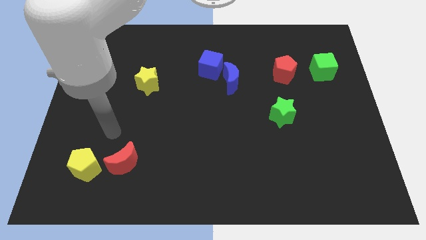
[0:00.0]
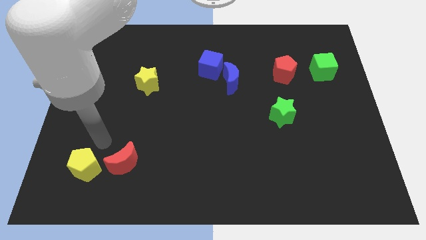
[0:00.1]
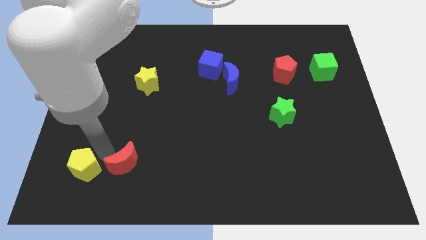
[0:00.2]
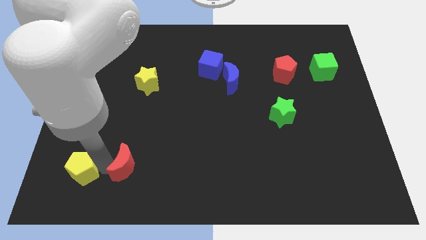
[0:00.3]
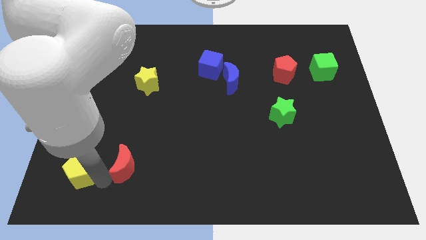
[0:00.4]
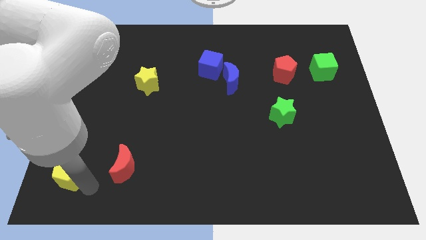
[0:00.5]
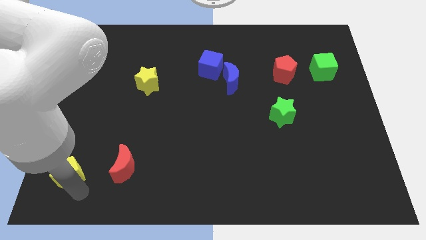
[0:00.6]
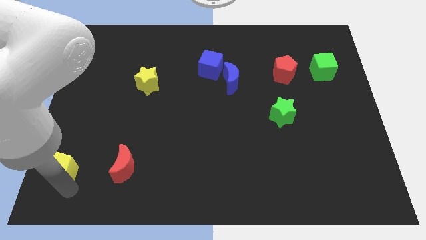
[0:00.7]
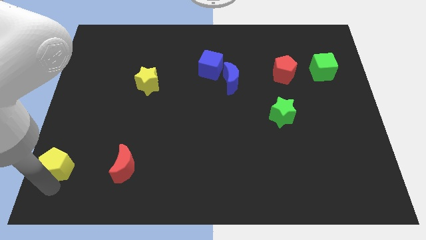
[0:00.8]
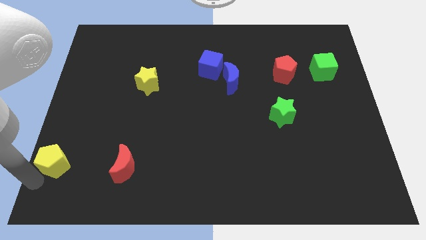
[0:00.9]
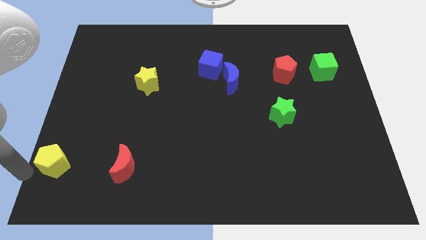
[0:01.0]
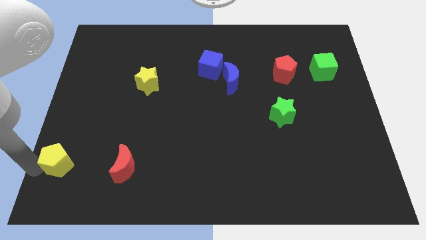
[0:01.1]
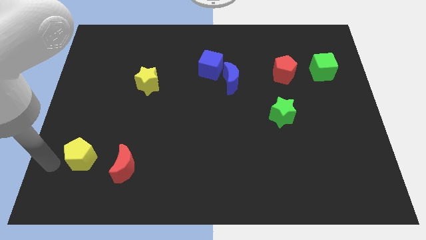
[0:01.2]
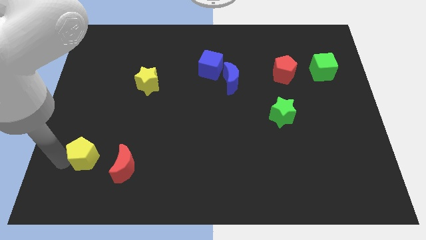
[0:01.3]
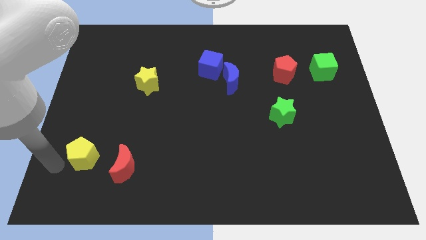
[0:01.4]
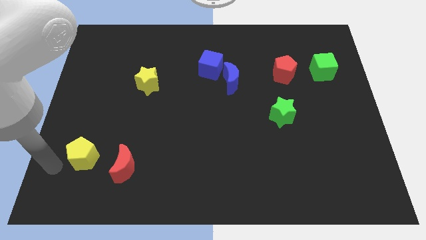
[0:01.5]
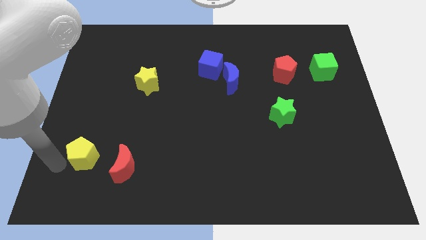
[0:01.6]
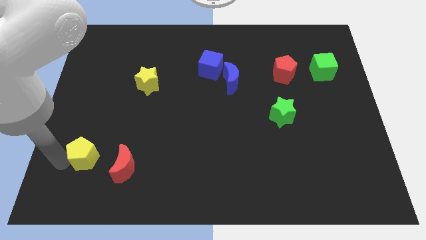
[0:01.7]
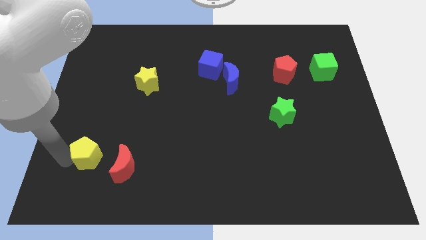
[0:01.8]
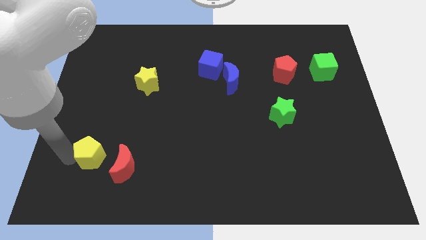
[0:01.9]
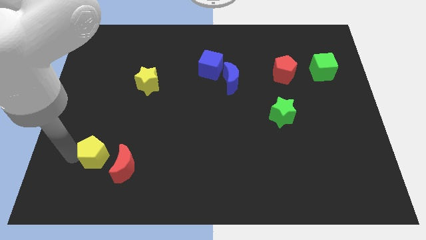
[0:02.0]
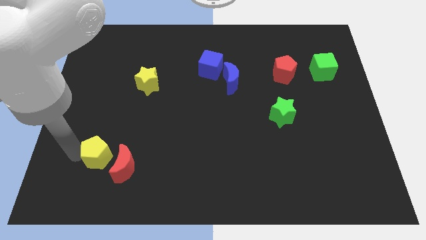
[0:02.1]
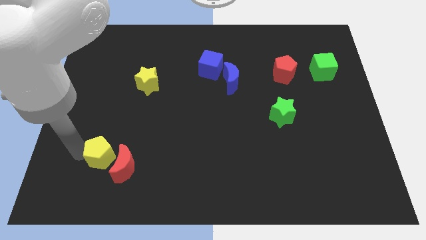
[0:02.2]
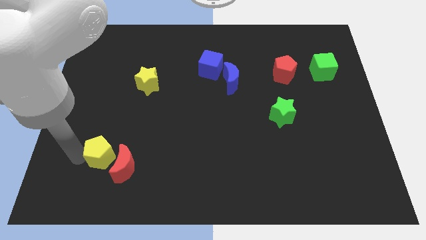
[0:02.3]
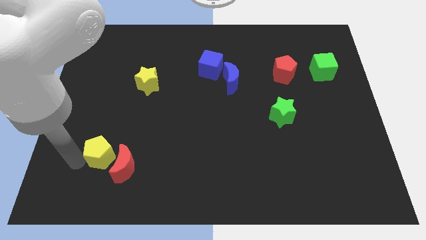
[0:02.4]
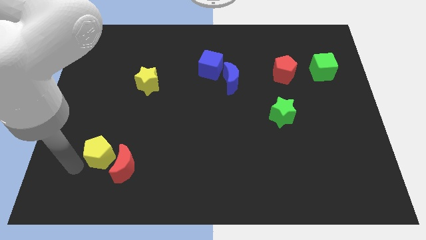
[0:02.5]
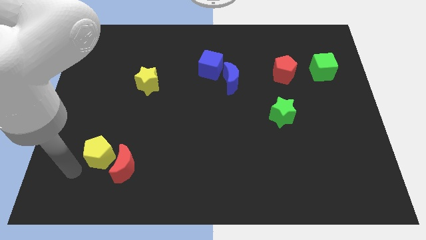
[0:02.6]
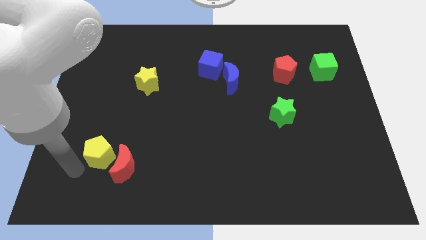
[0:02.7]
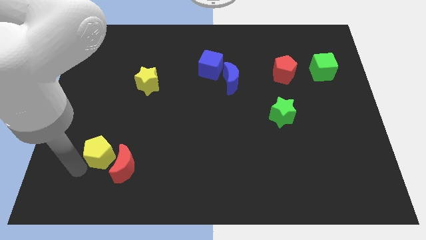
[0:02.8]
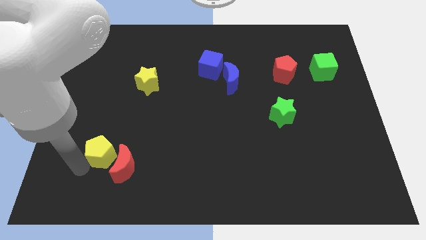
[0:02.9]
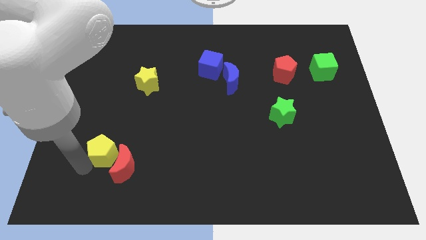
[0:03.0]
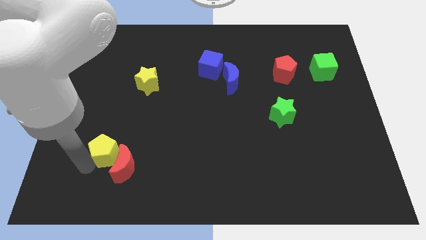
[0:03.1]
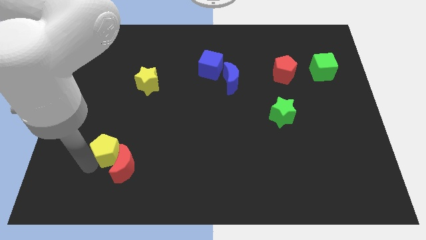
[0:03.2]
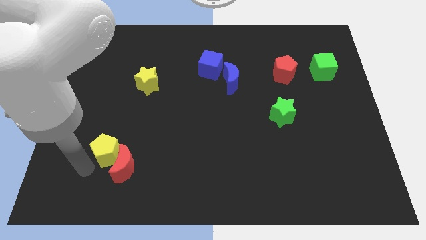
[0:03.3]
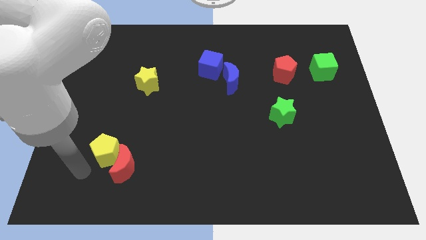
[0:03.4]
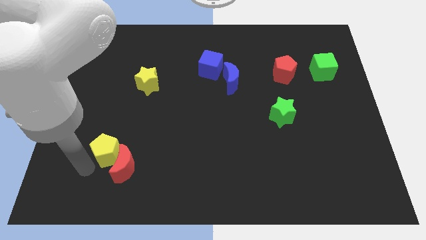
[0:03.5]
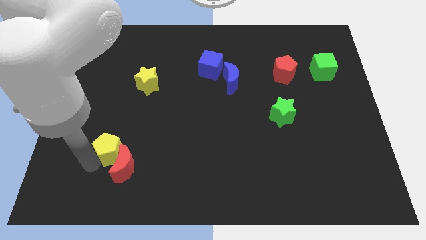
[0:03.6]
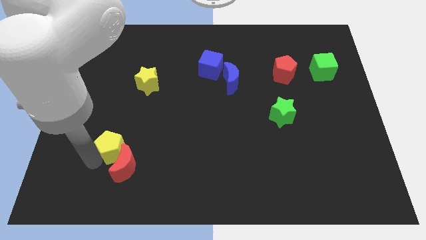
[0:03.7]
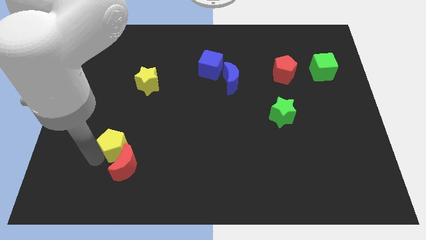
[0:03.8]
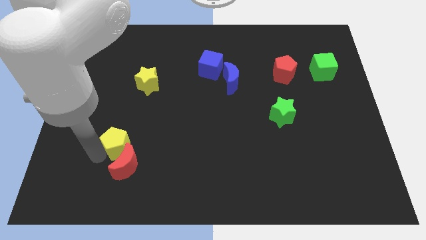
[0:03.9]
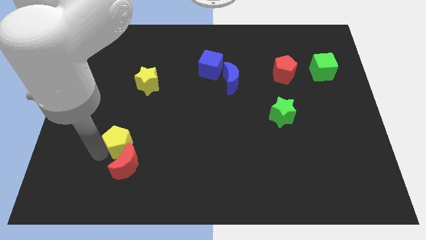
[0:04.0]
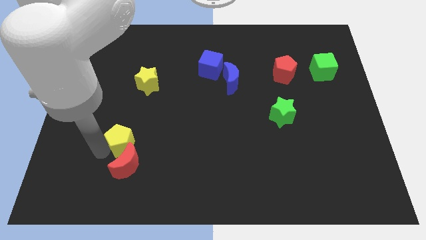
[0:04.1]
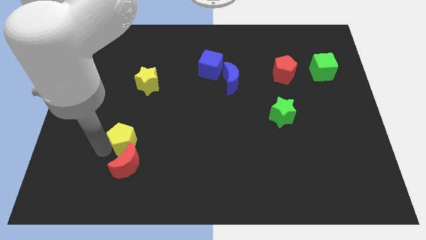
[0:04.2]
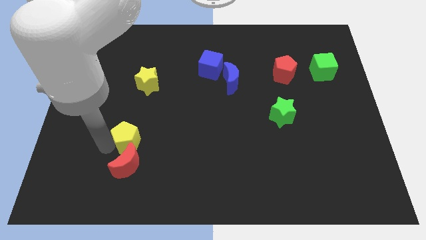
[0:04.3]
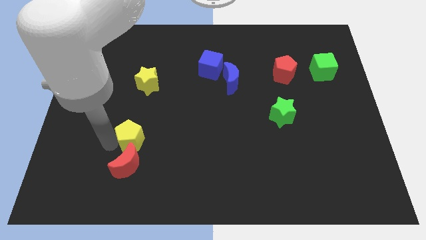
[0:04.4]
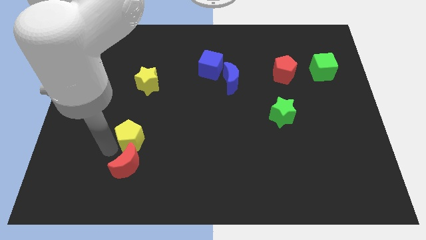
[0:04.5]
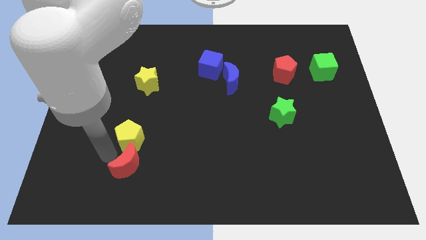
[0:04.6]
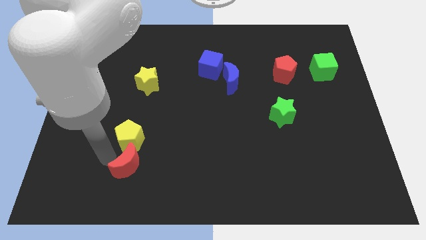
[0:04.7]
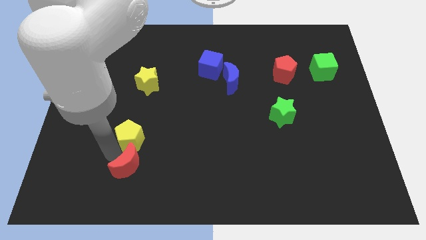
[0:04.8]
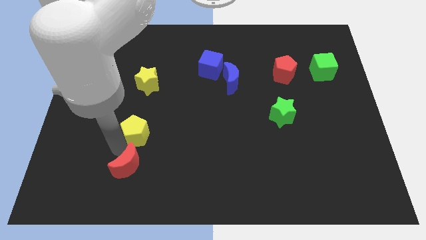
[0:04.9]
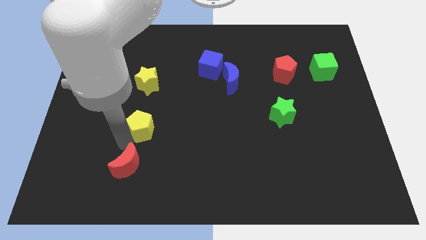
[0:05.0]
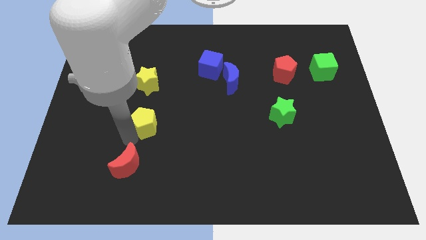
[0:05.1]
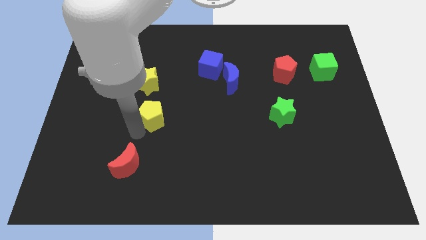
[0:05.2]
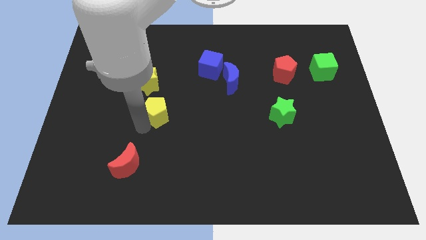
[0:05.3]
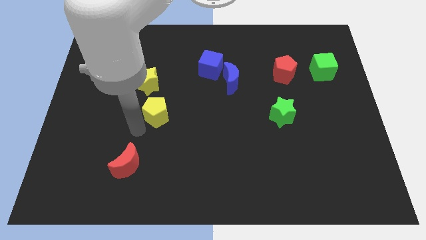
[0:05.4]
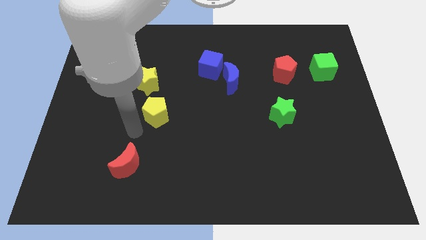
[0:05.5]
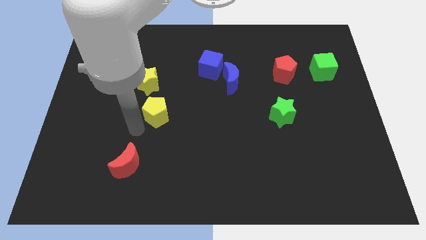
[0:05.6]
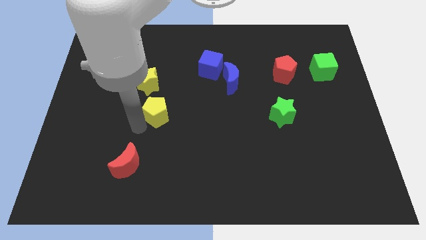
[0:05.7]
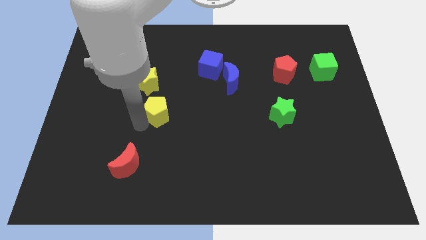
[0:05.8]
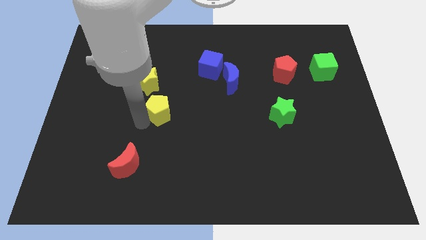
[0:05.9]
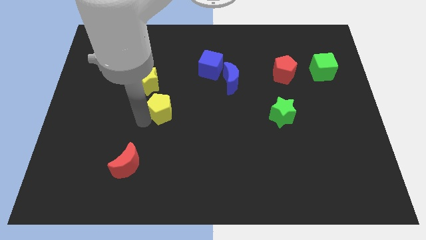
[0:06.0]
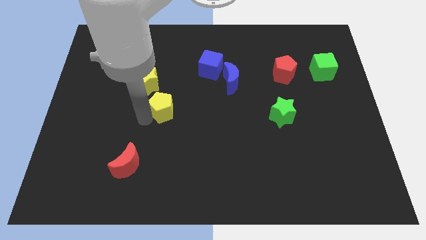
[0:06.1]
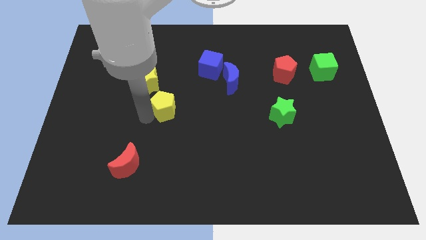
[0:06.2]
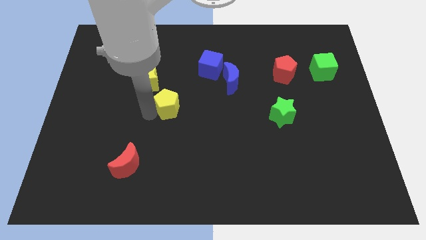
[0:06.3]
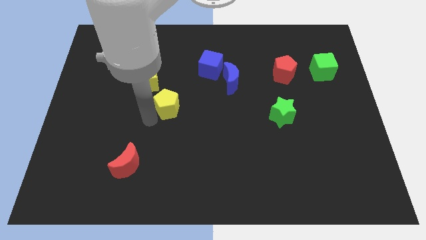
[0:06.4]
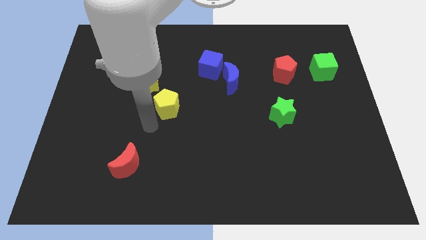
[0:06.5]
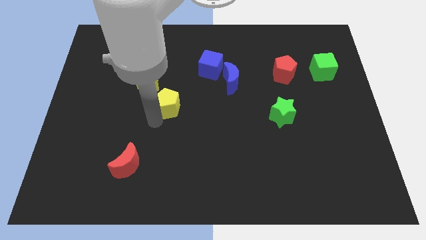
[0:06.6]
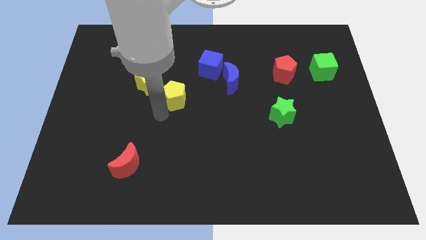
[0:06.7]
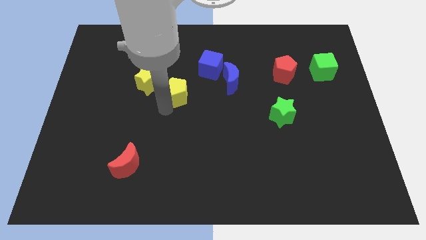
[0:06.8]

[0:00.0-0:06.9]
push the yellow pentagon to the left of the blue moon

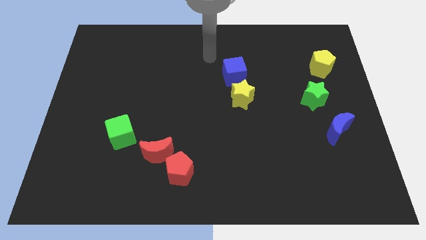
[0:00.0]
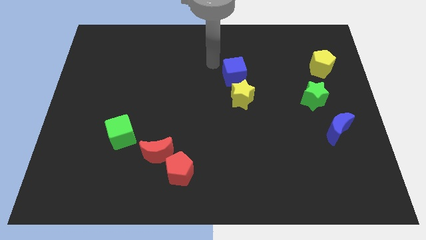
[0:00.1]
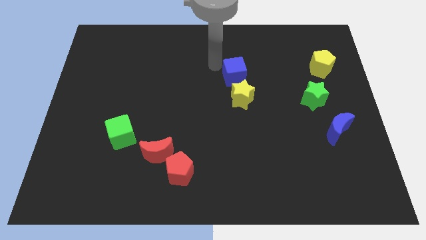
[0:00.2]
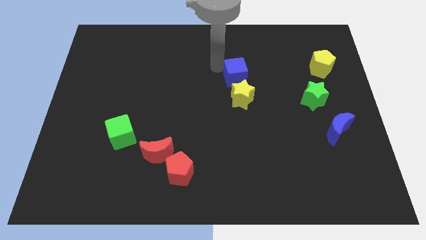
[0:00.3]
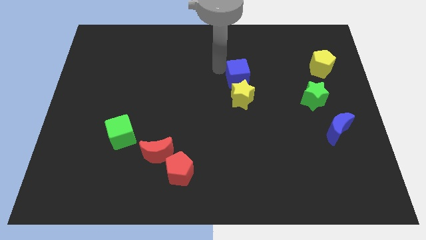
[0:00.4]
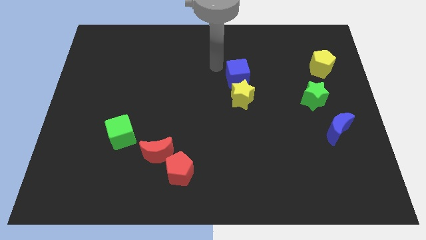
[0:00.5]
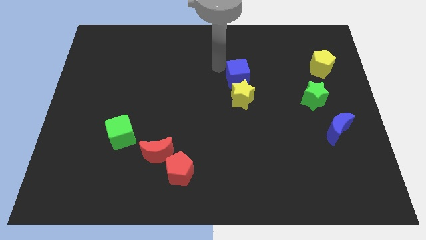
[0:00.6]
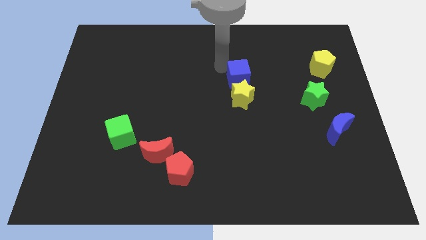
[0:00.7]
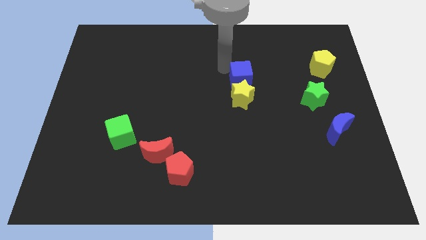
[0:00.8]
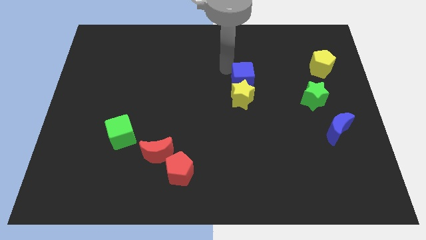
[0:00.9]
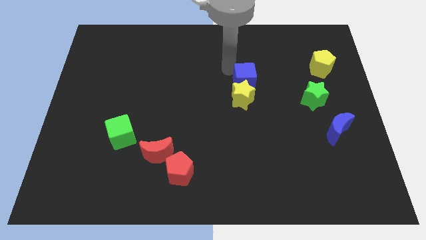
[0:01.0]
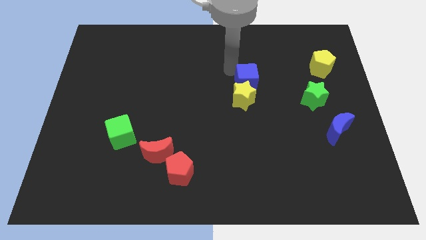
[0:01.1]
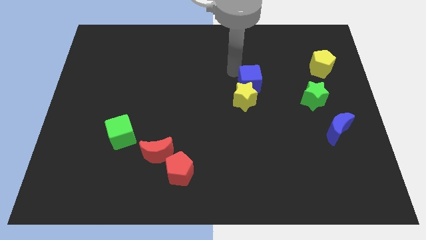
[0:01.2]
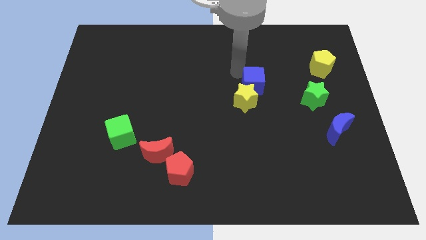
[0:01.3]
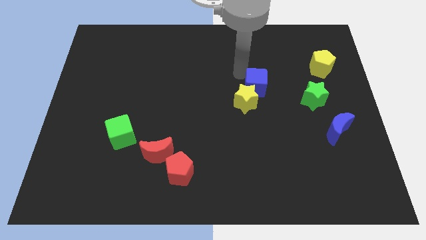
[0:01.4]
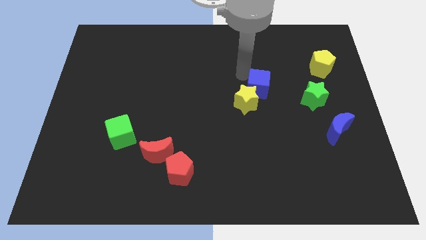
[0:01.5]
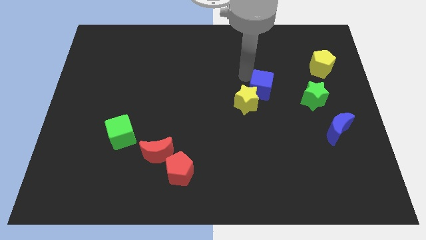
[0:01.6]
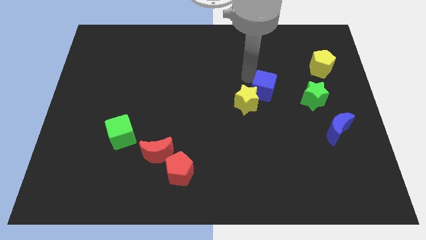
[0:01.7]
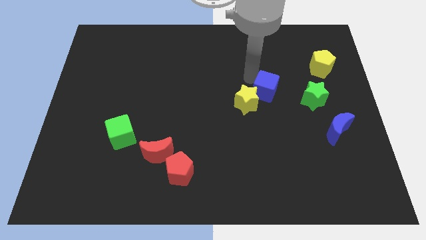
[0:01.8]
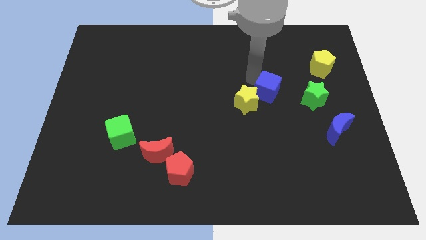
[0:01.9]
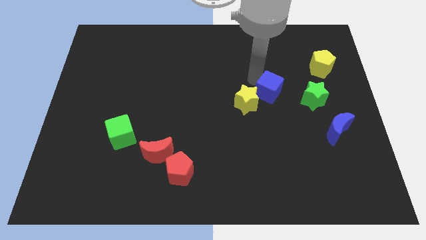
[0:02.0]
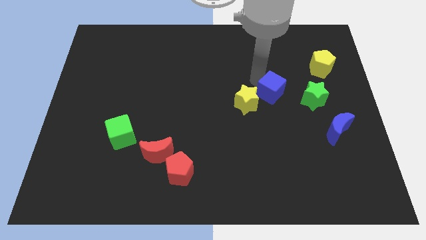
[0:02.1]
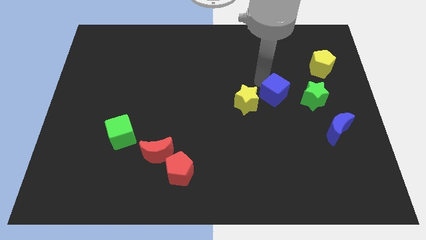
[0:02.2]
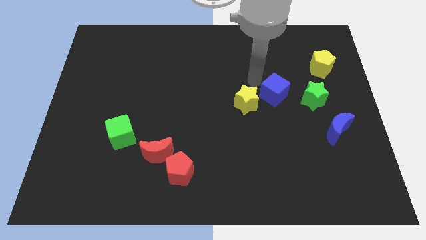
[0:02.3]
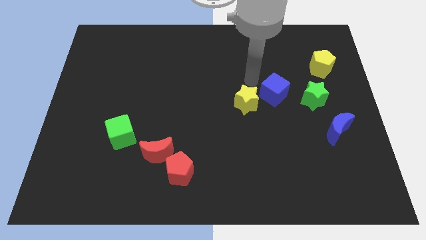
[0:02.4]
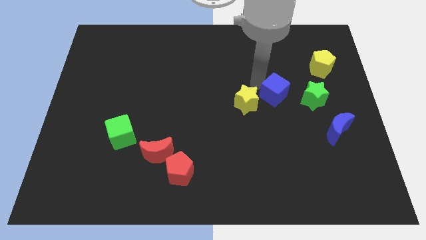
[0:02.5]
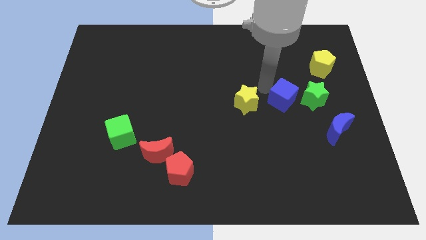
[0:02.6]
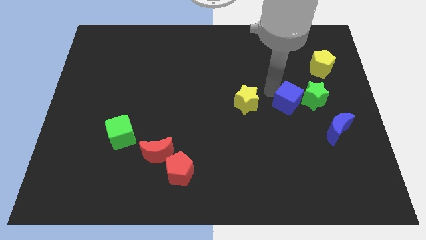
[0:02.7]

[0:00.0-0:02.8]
move the blue cube diagonally up and to the left of the blue moon
